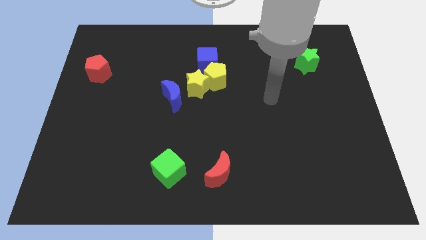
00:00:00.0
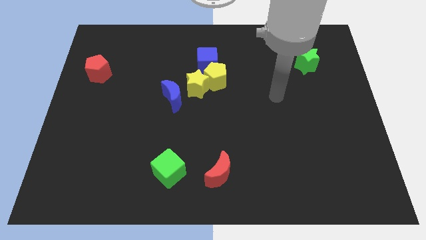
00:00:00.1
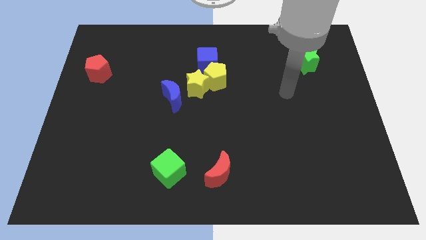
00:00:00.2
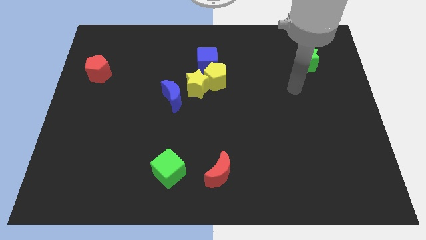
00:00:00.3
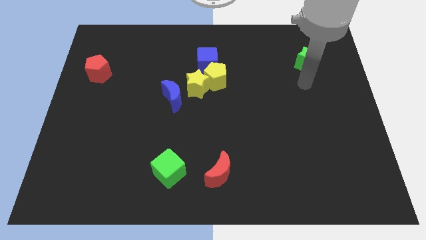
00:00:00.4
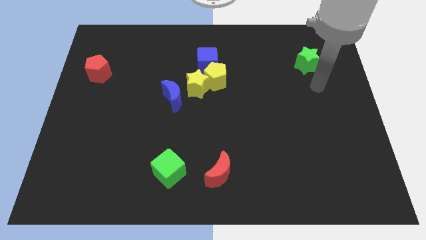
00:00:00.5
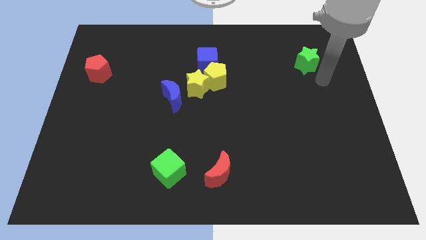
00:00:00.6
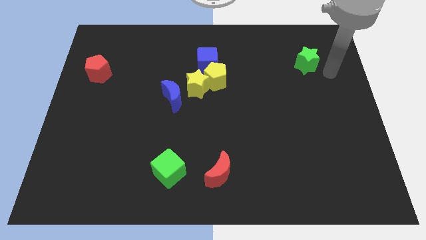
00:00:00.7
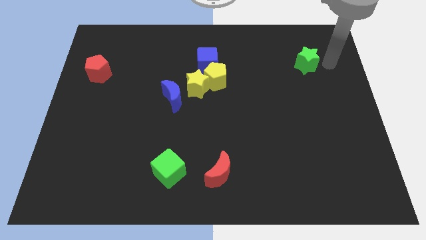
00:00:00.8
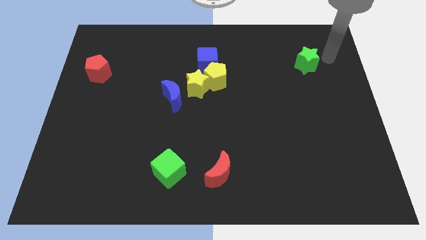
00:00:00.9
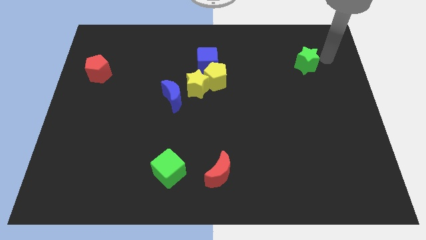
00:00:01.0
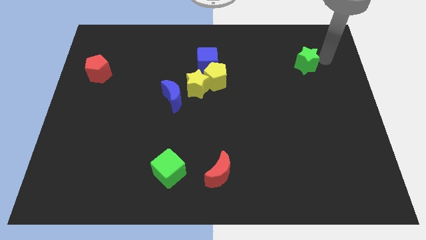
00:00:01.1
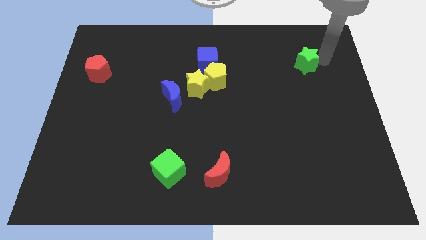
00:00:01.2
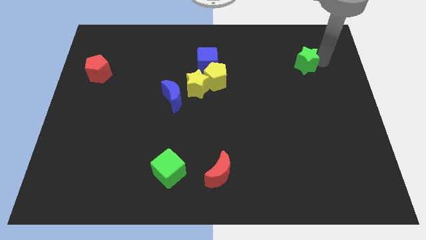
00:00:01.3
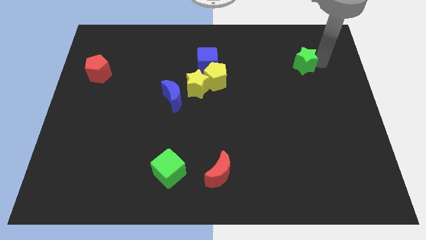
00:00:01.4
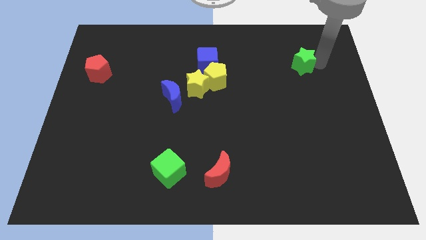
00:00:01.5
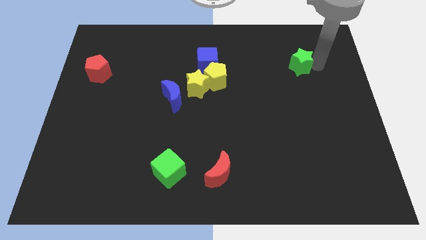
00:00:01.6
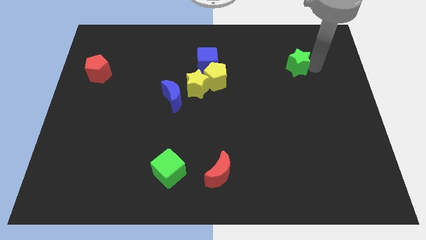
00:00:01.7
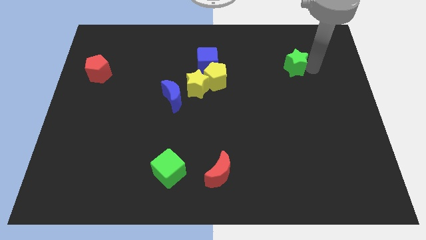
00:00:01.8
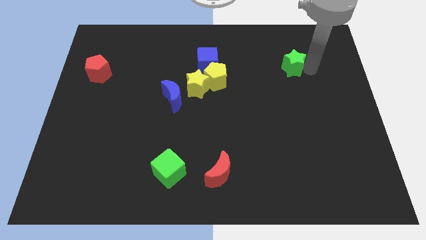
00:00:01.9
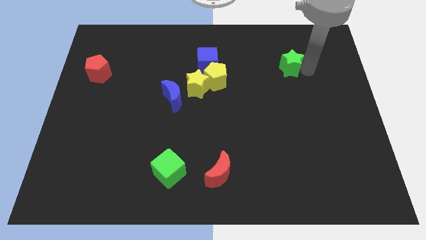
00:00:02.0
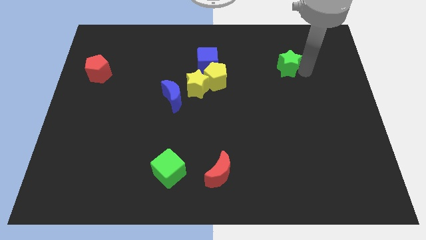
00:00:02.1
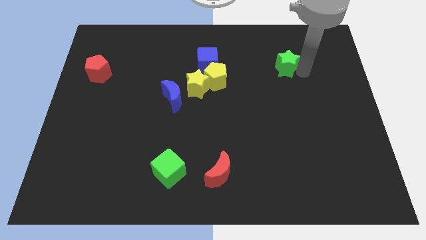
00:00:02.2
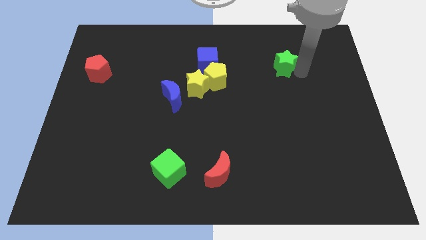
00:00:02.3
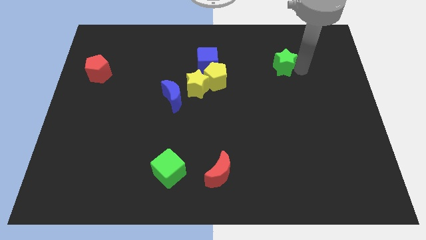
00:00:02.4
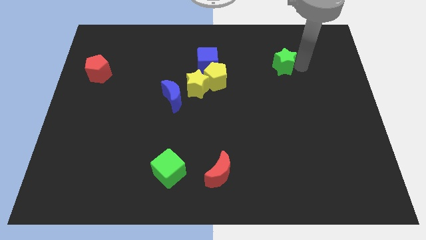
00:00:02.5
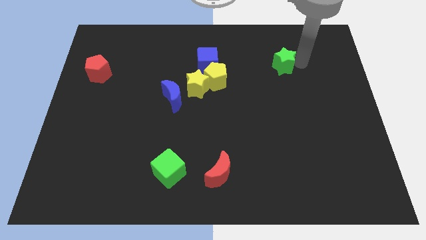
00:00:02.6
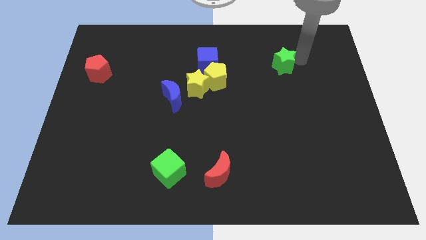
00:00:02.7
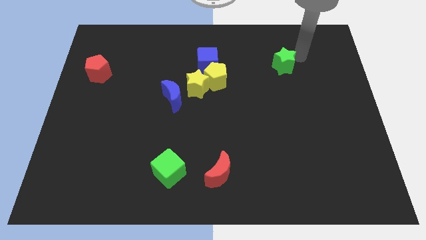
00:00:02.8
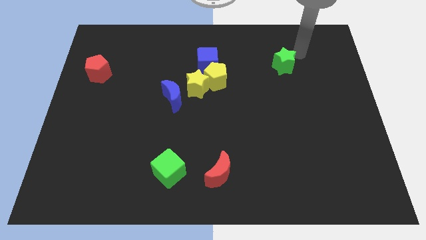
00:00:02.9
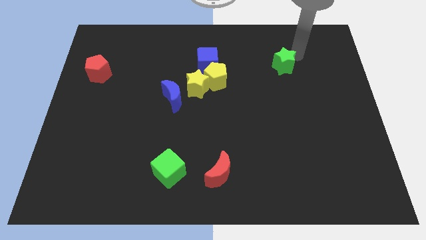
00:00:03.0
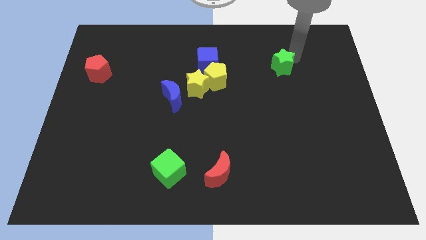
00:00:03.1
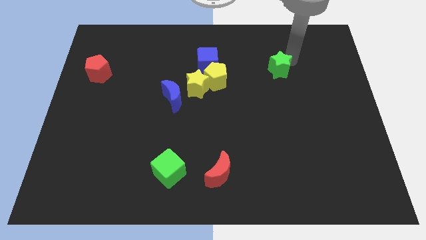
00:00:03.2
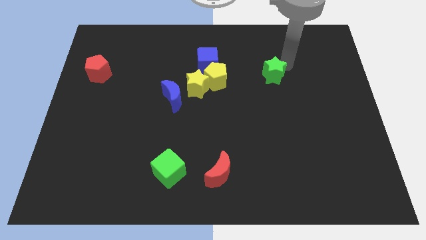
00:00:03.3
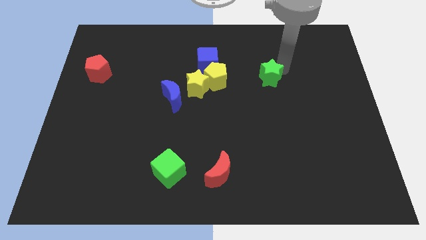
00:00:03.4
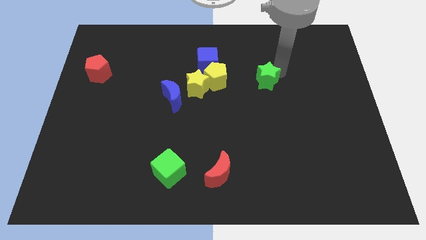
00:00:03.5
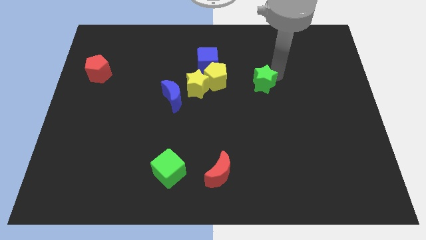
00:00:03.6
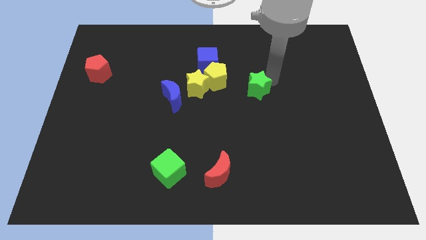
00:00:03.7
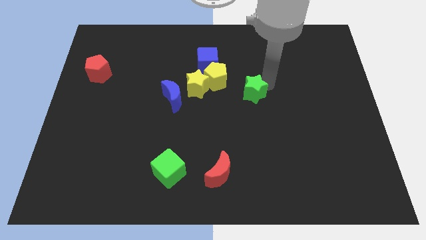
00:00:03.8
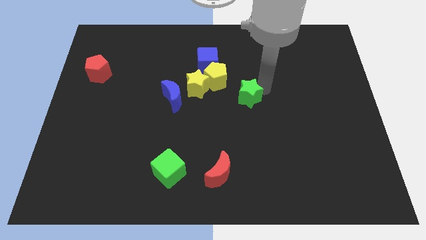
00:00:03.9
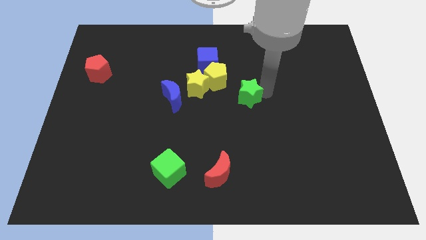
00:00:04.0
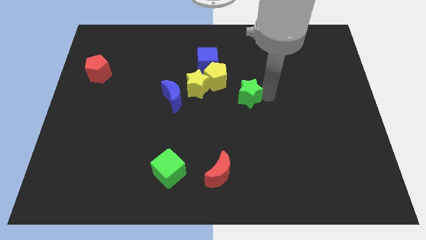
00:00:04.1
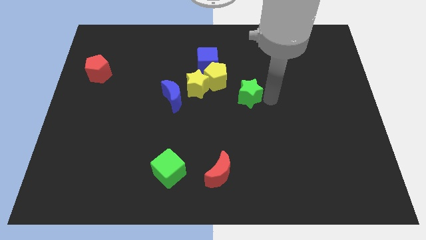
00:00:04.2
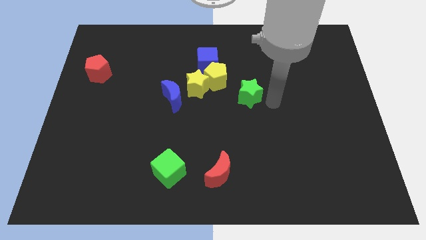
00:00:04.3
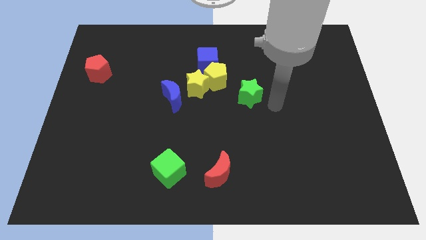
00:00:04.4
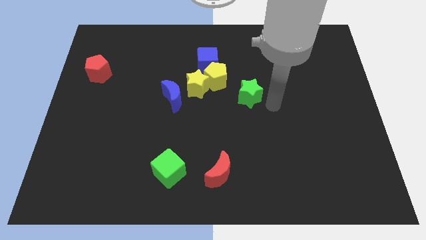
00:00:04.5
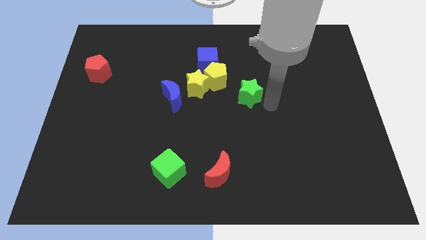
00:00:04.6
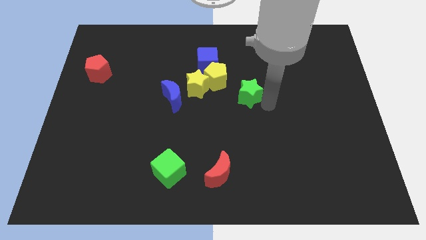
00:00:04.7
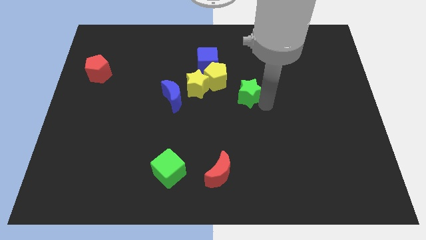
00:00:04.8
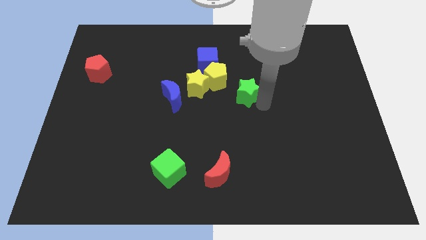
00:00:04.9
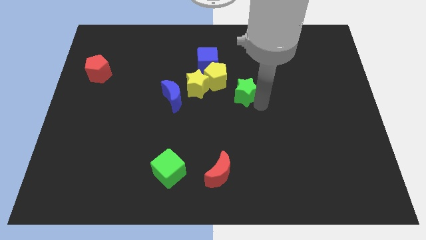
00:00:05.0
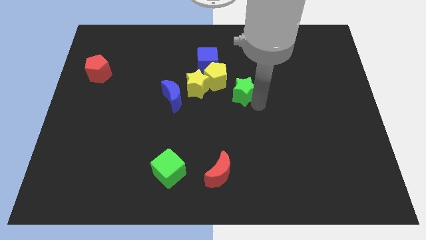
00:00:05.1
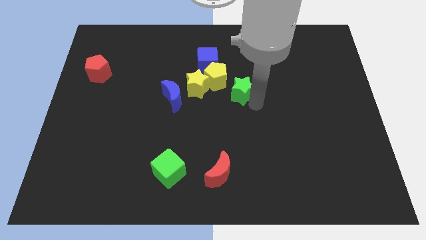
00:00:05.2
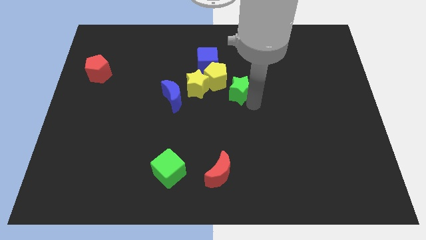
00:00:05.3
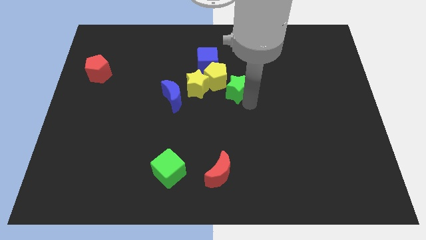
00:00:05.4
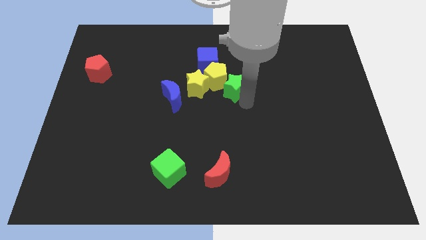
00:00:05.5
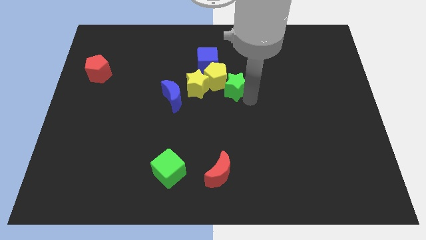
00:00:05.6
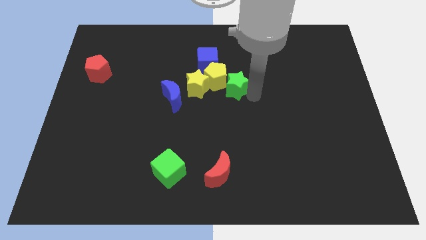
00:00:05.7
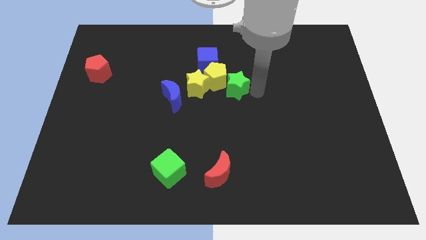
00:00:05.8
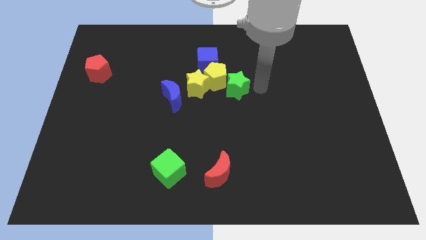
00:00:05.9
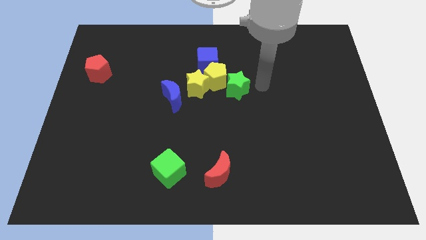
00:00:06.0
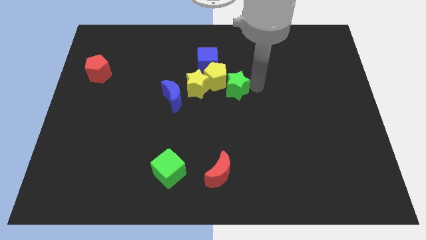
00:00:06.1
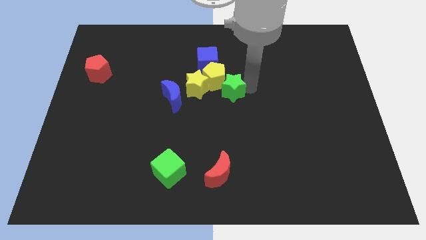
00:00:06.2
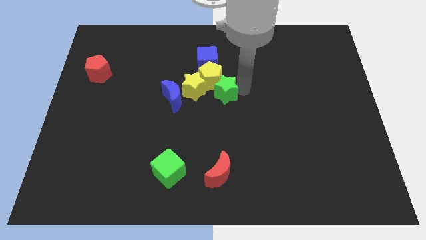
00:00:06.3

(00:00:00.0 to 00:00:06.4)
push the green star to the bottom of the blue cube

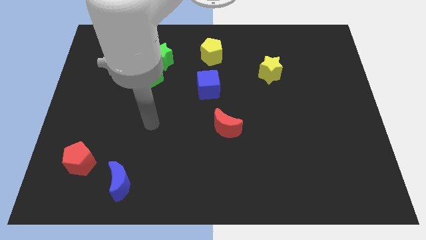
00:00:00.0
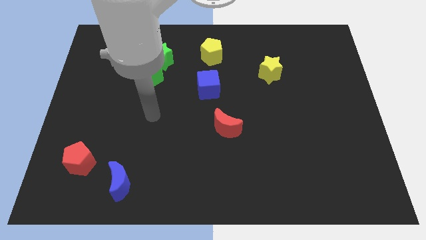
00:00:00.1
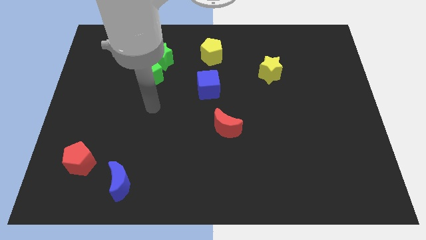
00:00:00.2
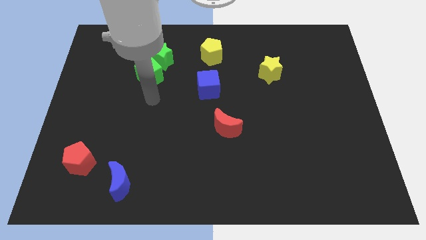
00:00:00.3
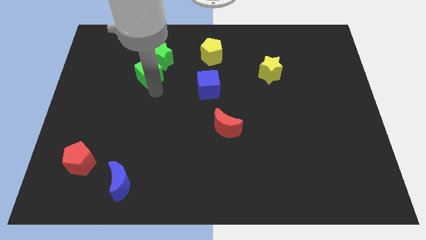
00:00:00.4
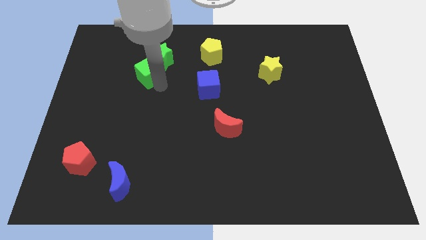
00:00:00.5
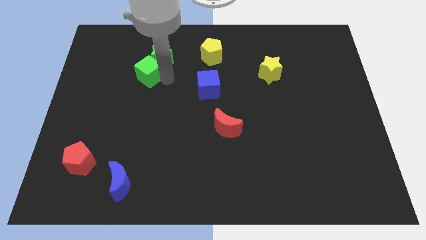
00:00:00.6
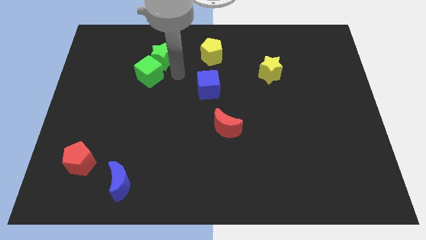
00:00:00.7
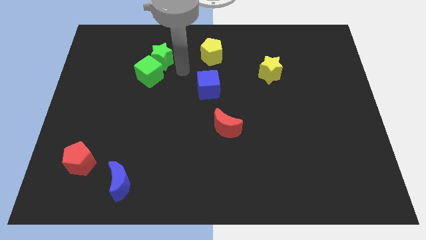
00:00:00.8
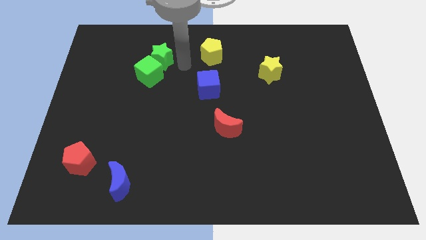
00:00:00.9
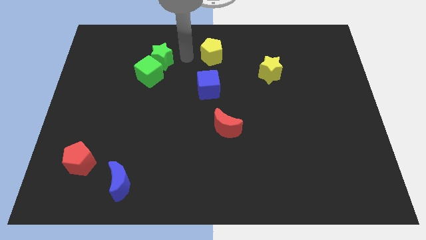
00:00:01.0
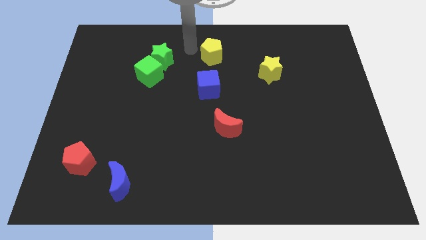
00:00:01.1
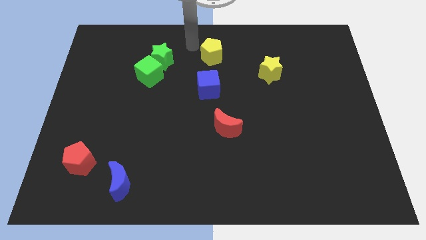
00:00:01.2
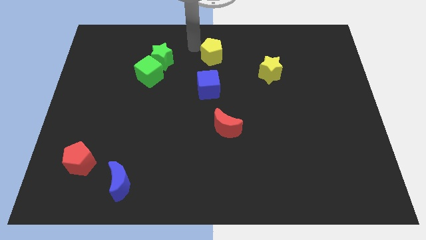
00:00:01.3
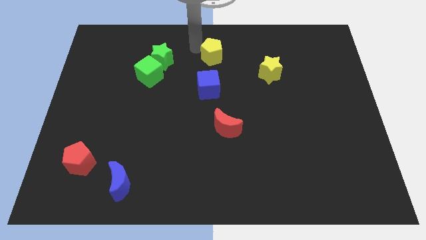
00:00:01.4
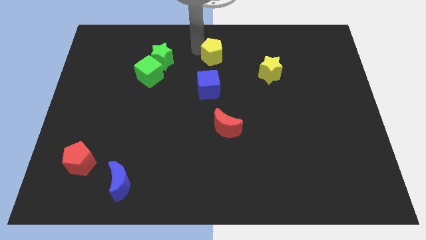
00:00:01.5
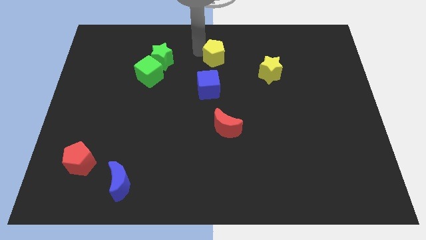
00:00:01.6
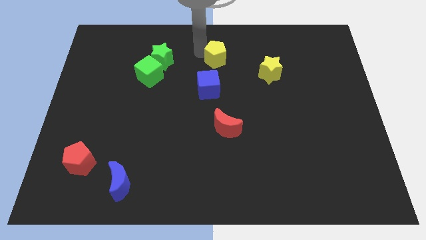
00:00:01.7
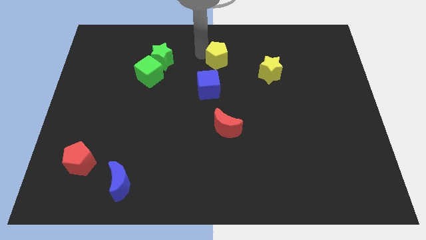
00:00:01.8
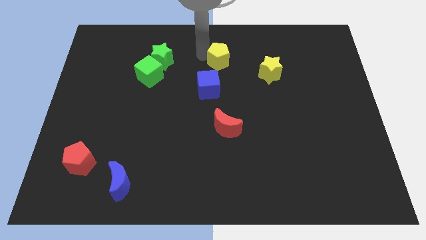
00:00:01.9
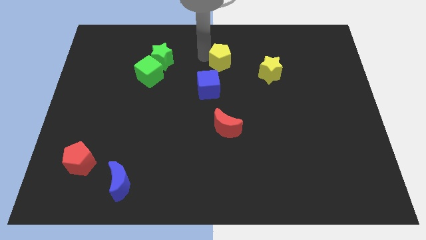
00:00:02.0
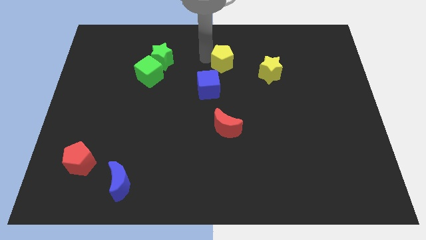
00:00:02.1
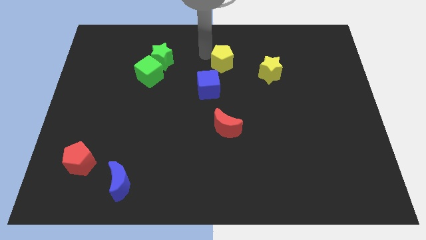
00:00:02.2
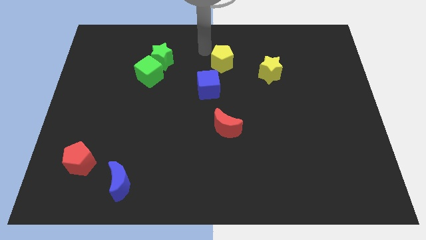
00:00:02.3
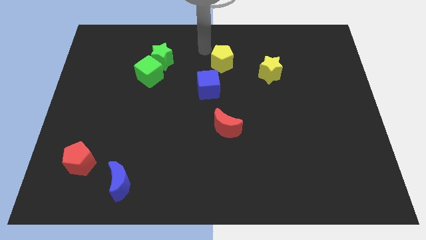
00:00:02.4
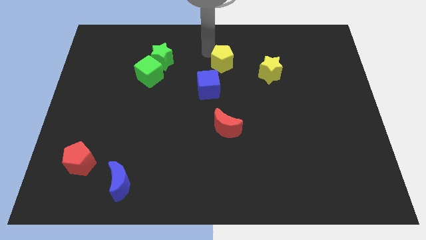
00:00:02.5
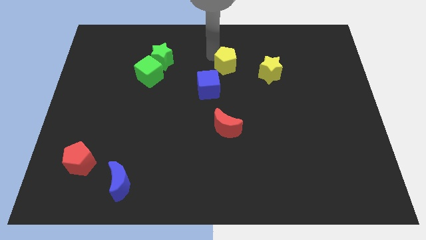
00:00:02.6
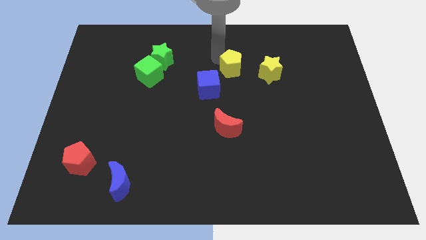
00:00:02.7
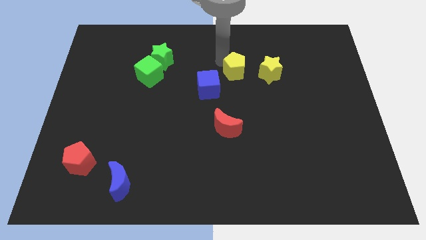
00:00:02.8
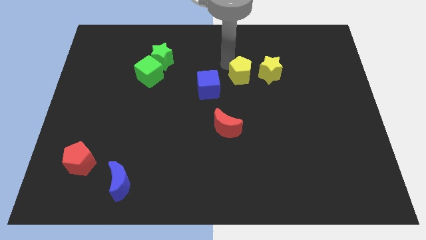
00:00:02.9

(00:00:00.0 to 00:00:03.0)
push the yellow pentagon just right of the blue cube
